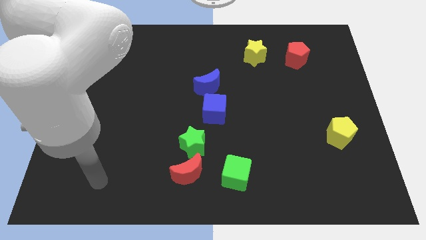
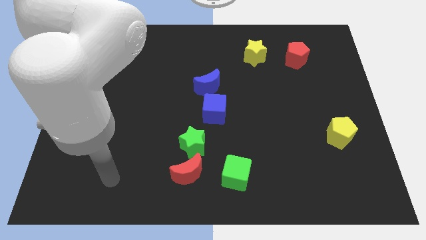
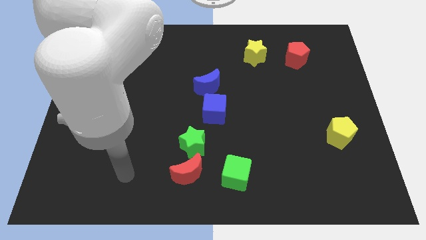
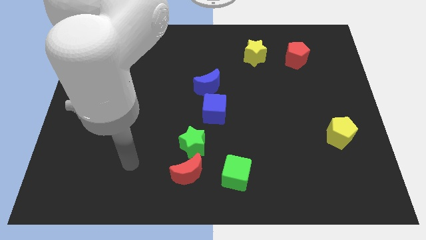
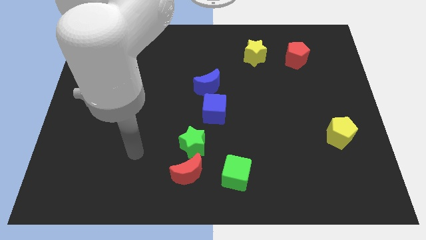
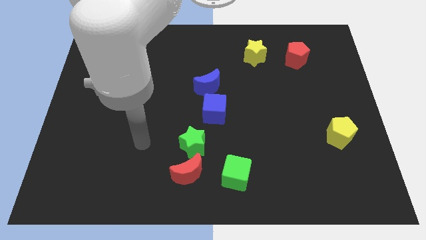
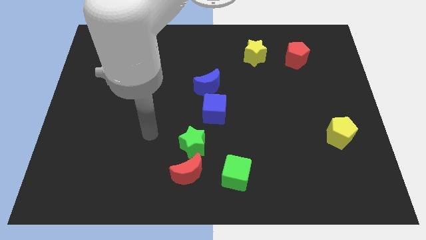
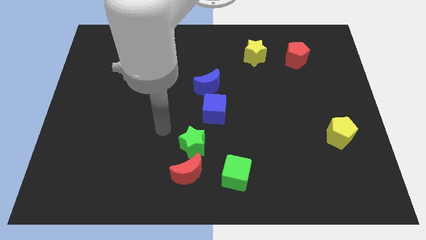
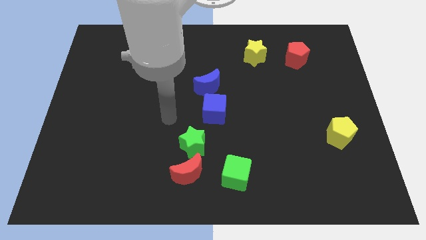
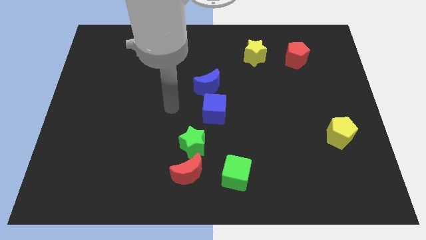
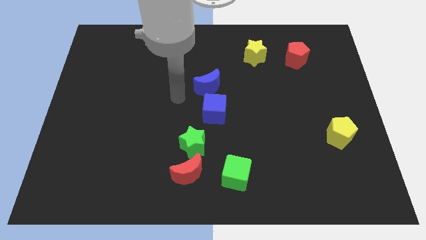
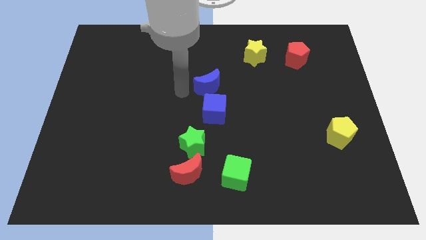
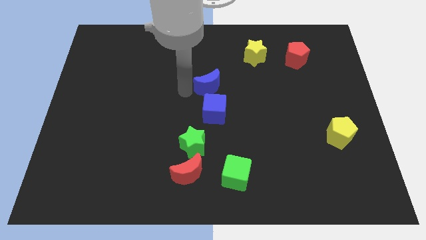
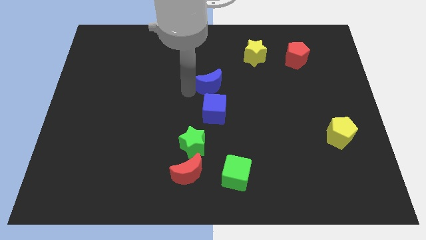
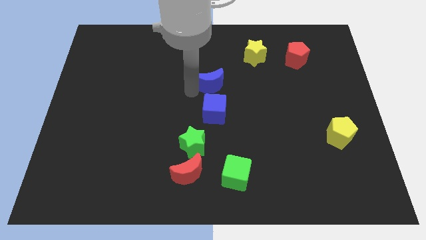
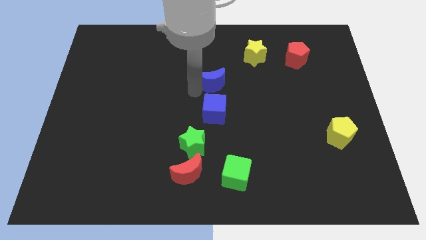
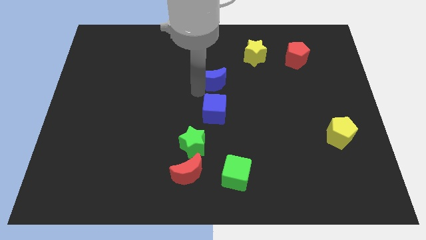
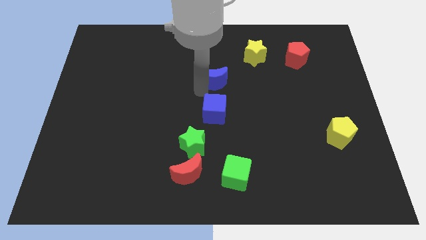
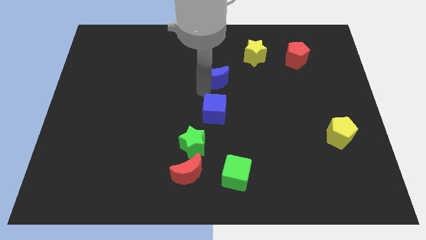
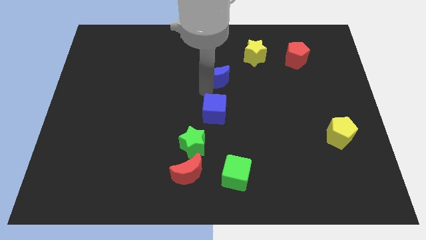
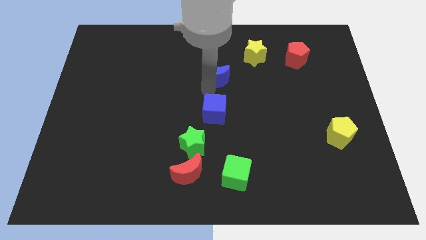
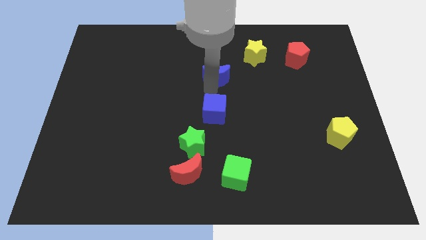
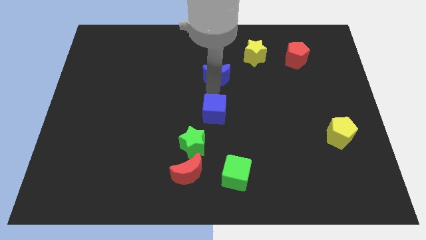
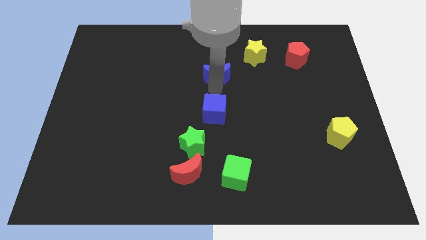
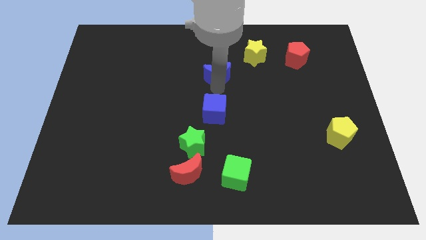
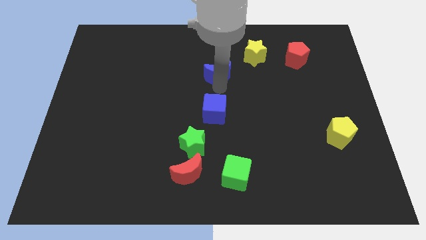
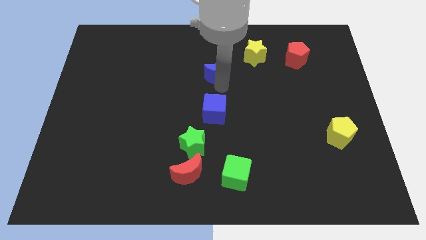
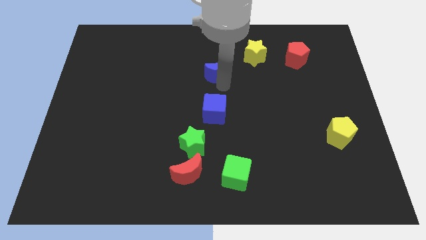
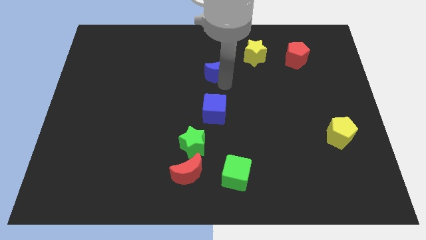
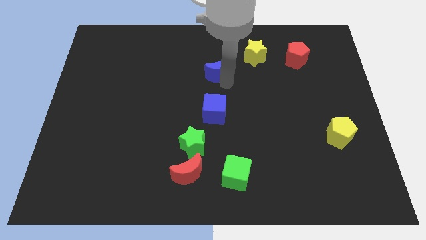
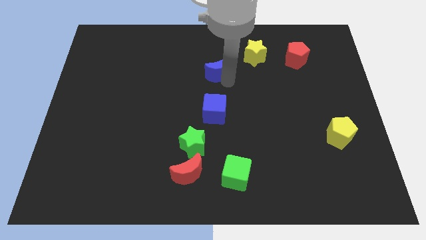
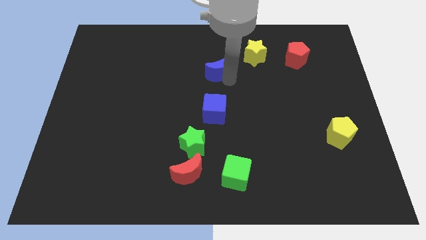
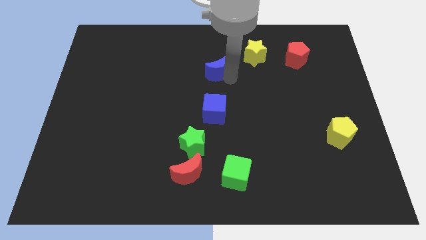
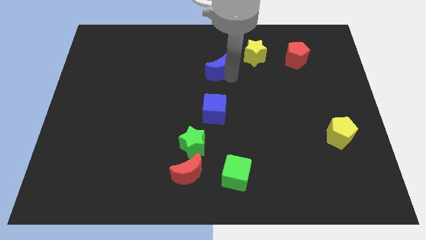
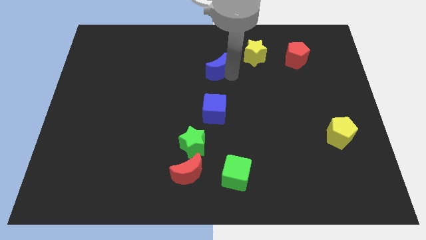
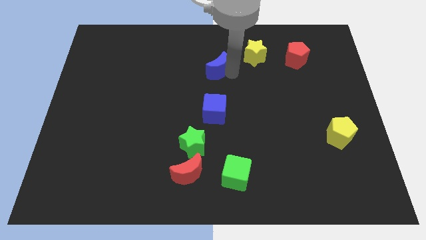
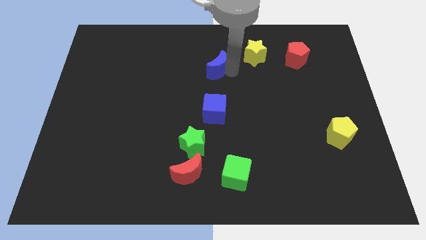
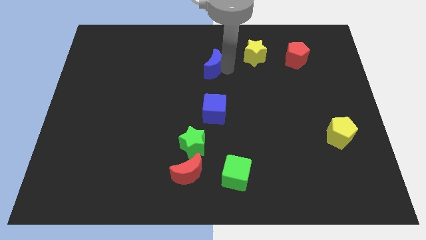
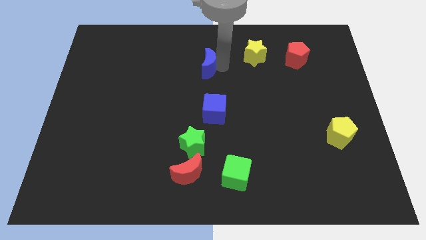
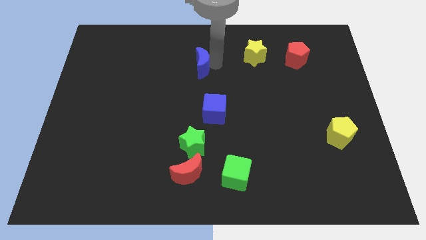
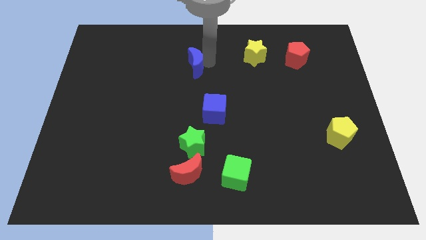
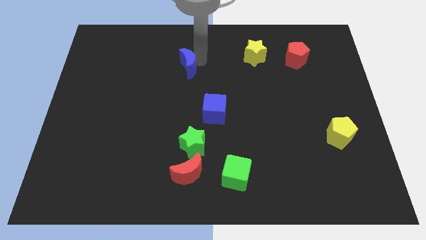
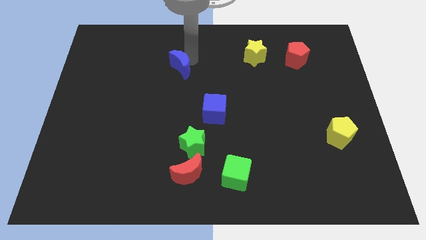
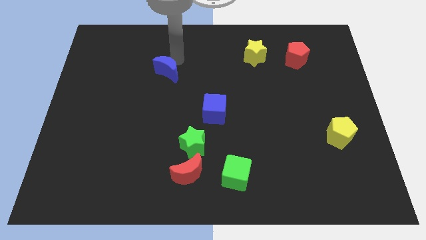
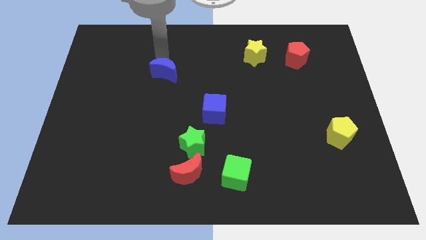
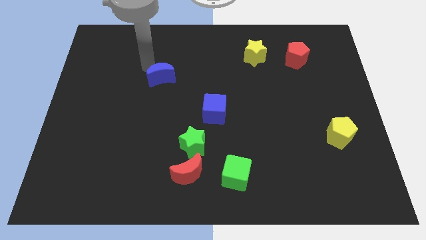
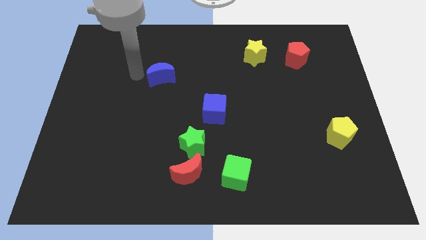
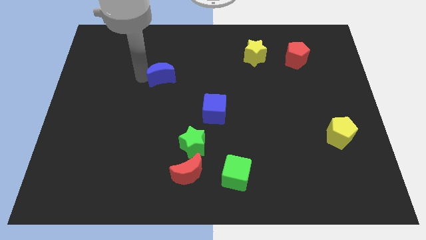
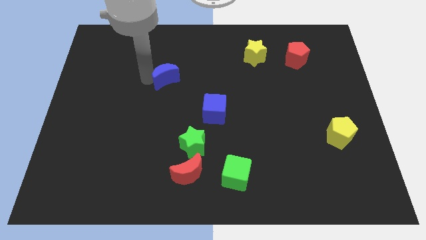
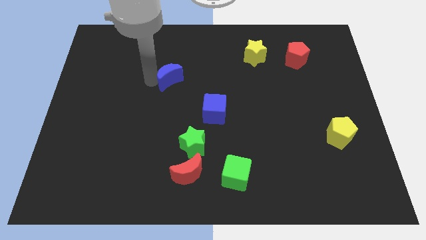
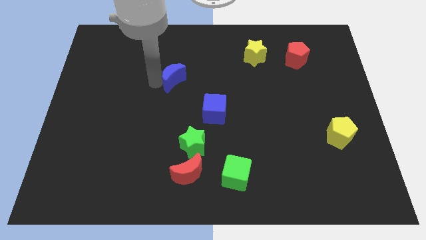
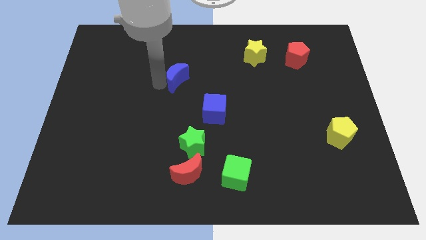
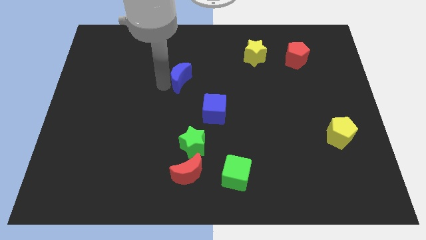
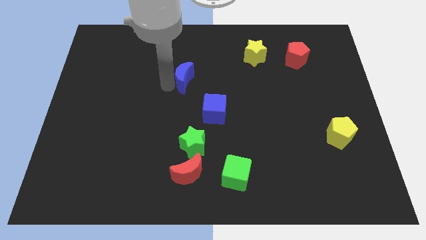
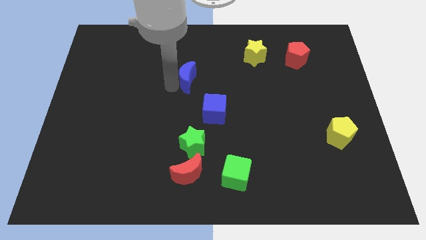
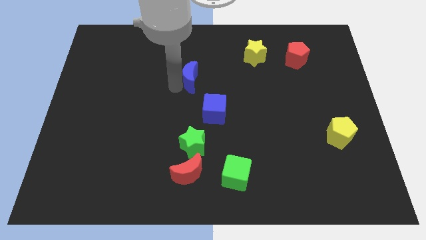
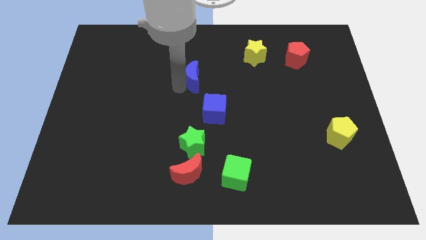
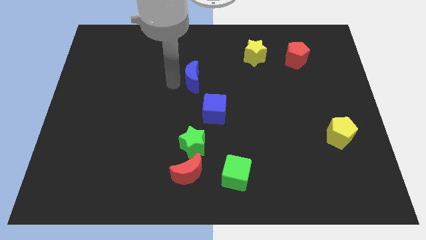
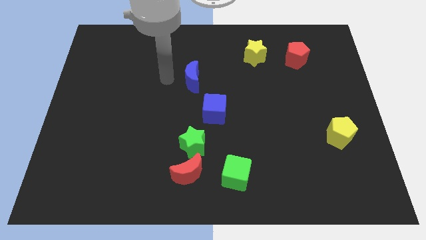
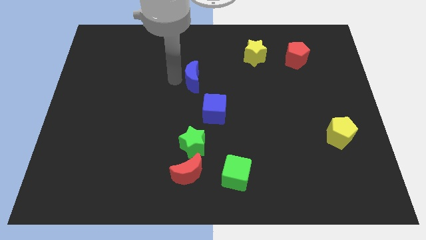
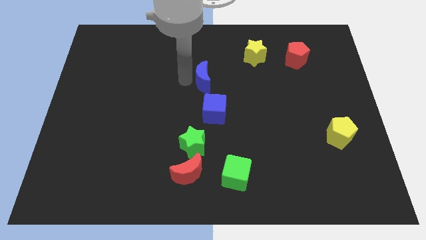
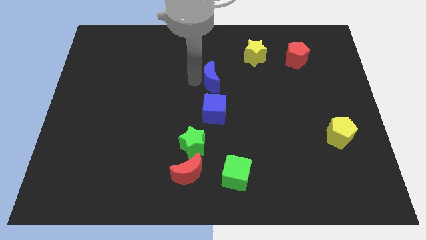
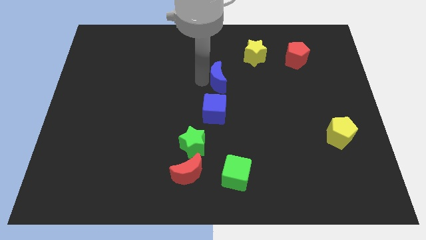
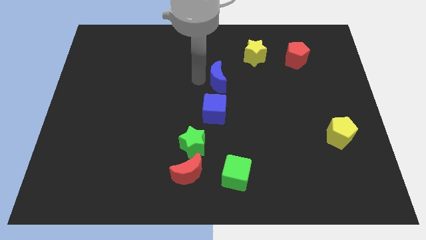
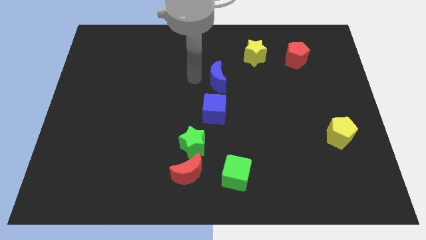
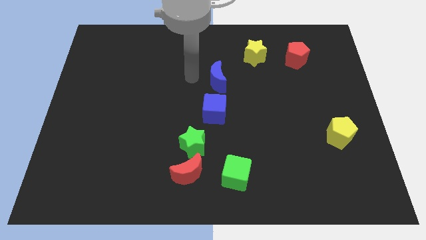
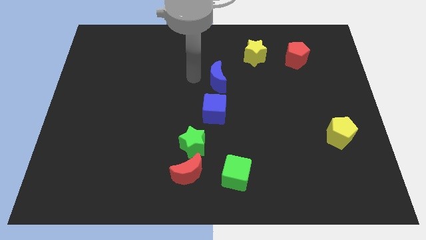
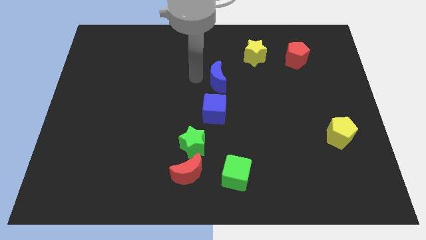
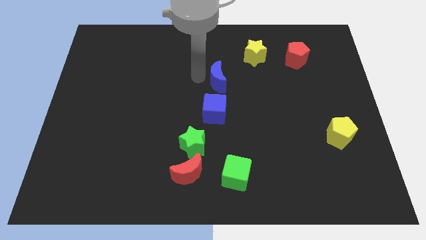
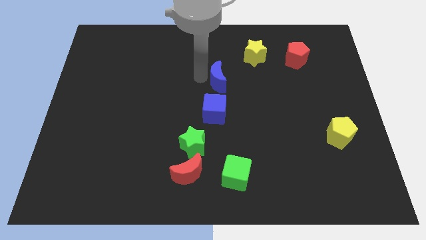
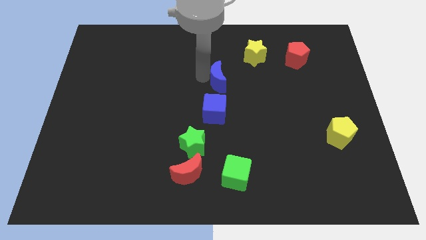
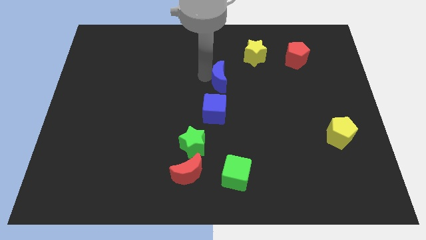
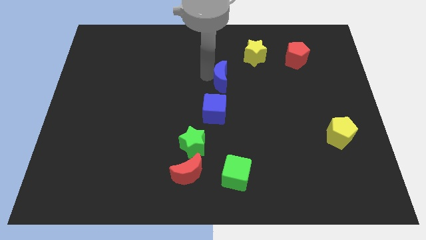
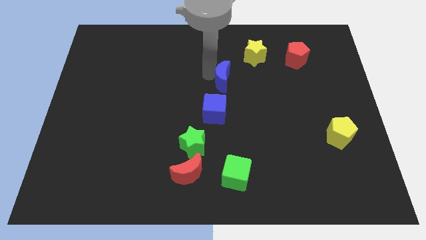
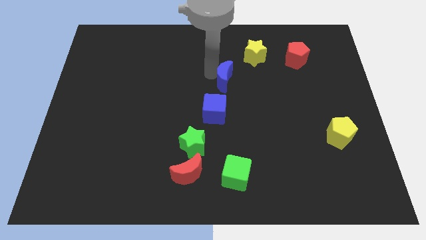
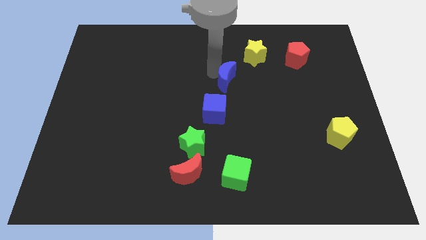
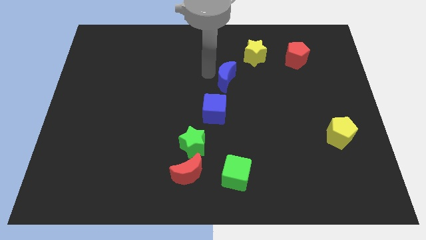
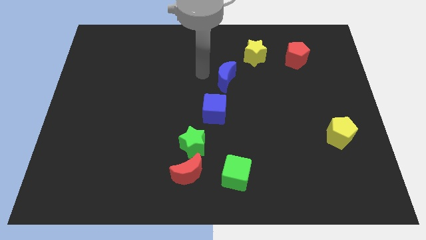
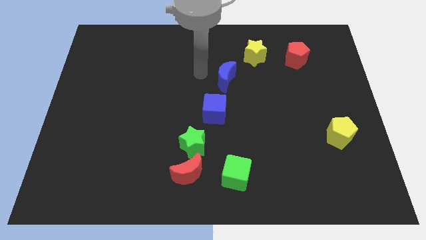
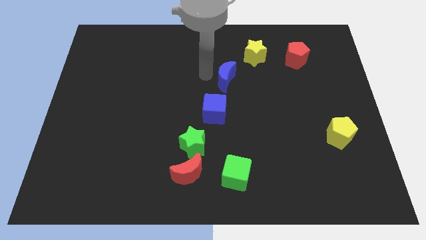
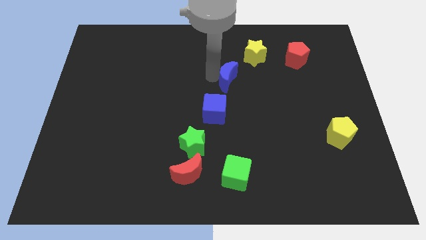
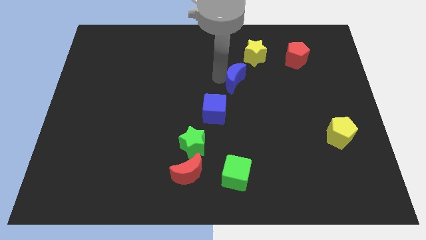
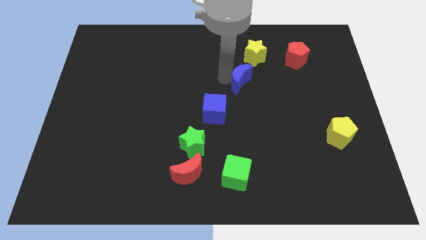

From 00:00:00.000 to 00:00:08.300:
slightly slide the blue moon to the right
